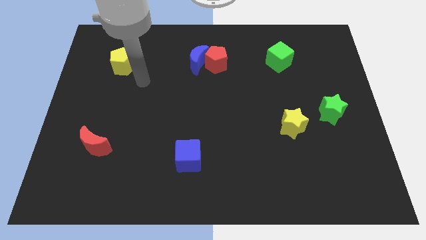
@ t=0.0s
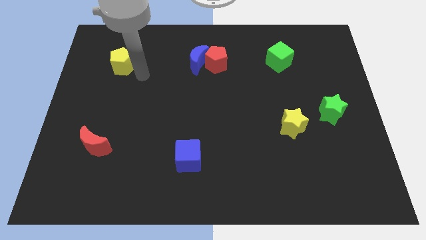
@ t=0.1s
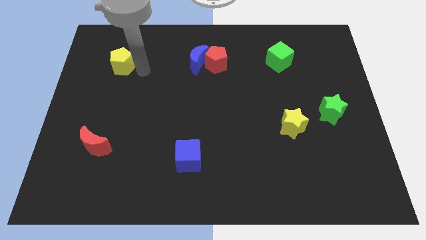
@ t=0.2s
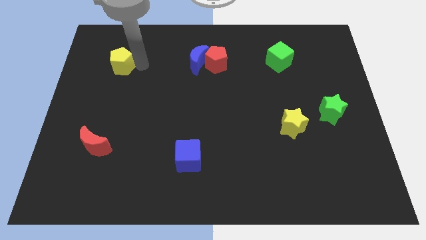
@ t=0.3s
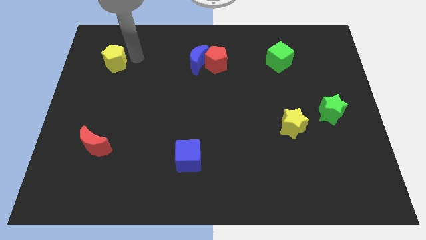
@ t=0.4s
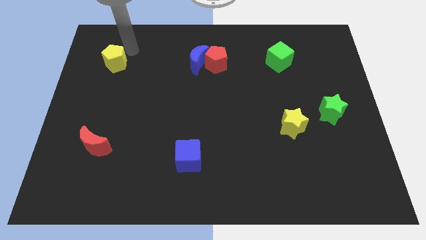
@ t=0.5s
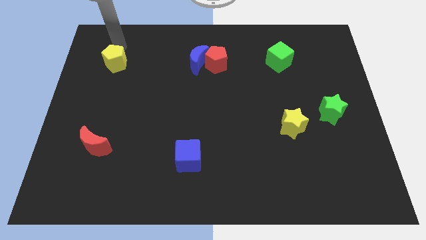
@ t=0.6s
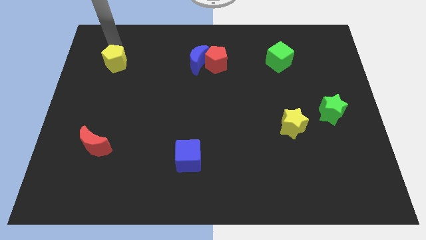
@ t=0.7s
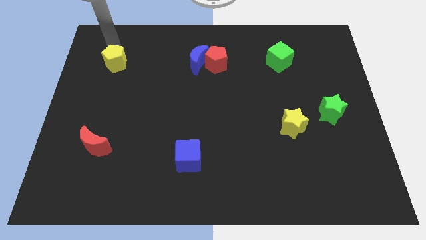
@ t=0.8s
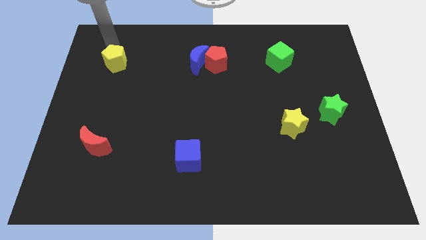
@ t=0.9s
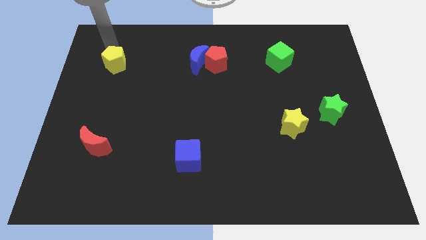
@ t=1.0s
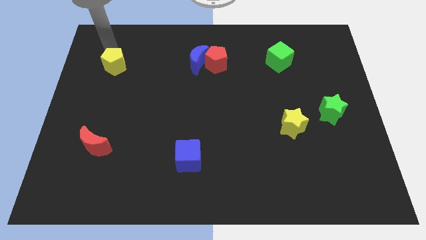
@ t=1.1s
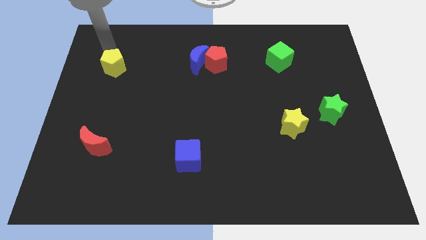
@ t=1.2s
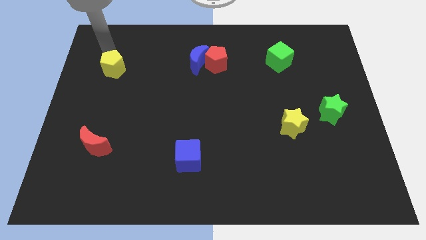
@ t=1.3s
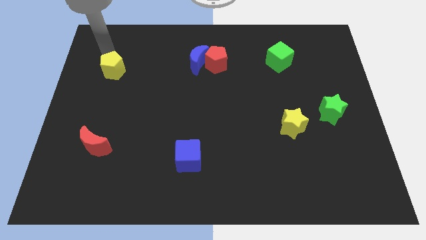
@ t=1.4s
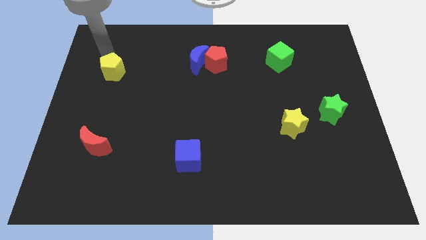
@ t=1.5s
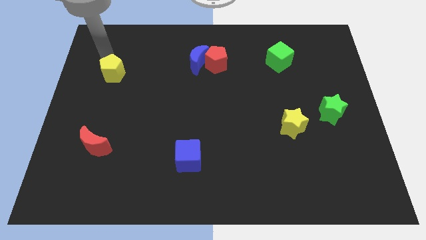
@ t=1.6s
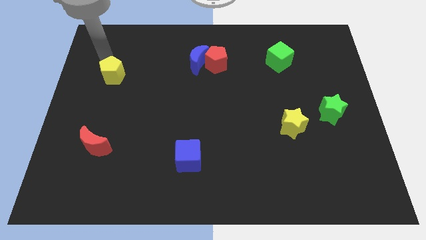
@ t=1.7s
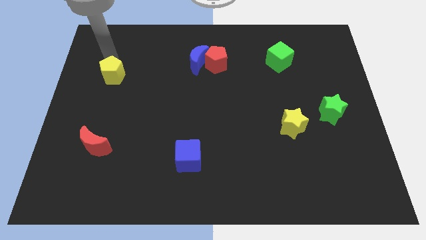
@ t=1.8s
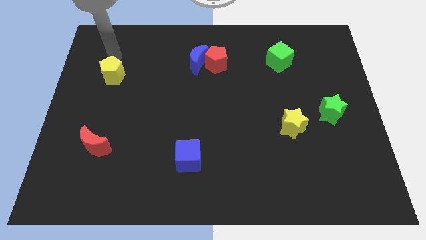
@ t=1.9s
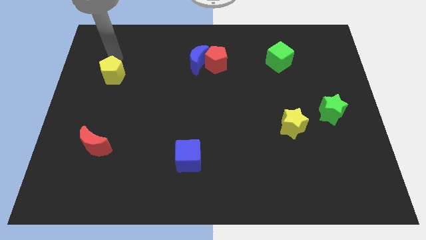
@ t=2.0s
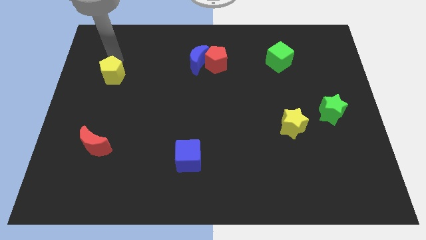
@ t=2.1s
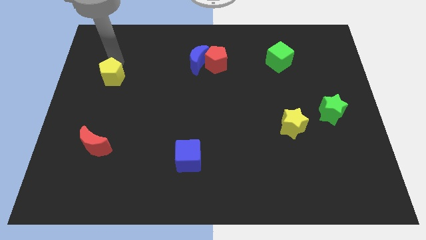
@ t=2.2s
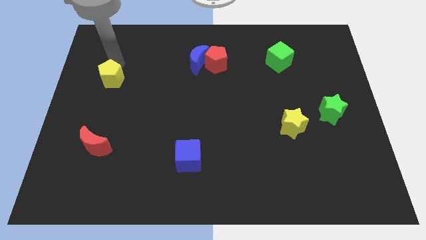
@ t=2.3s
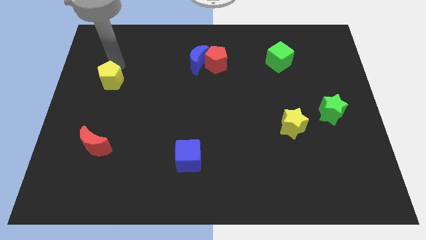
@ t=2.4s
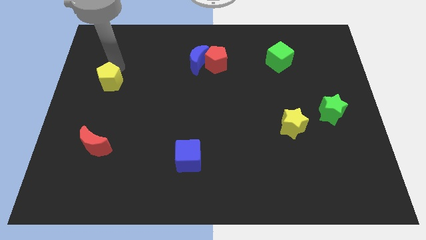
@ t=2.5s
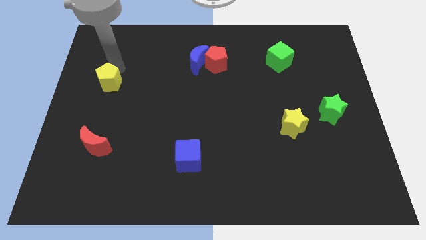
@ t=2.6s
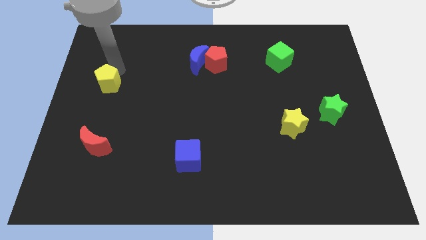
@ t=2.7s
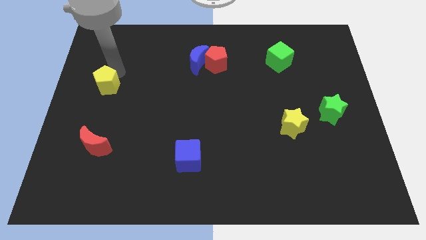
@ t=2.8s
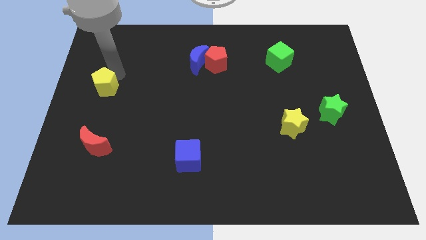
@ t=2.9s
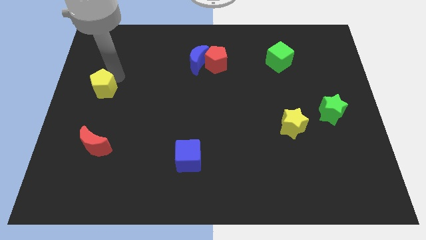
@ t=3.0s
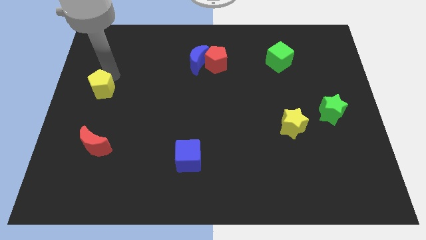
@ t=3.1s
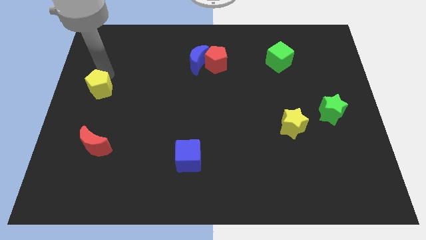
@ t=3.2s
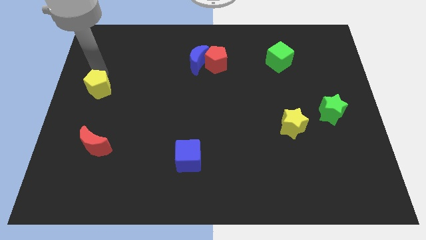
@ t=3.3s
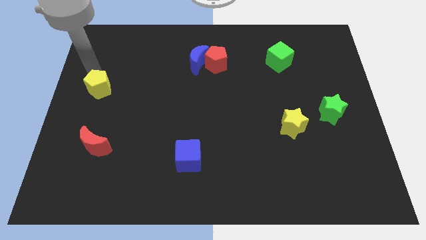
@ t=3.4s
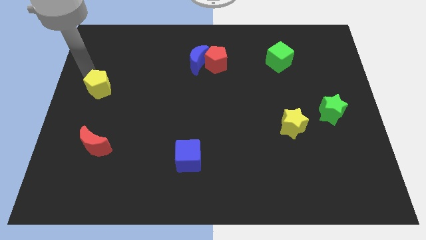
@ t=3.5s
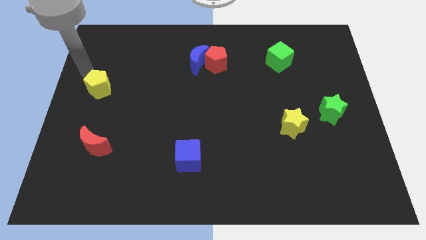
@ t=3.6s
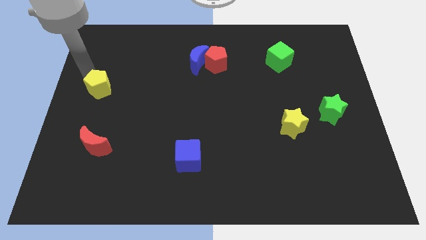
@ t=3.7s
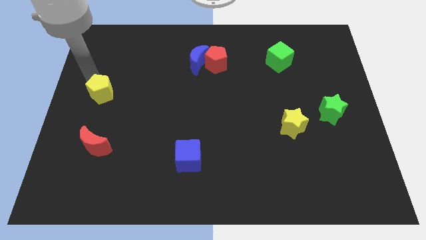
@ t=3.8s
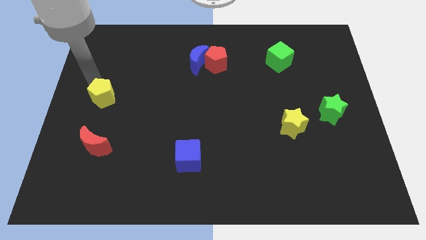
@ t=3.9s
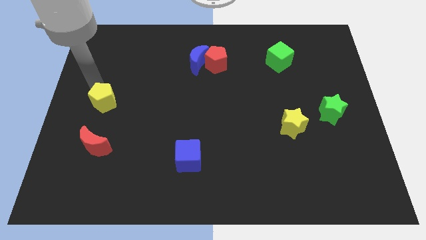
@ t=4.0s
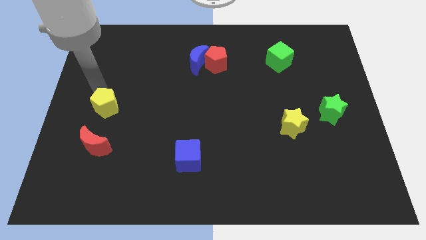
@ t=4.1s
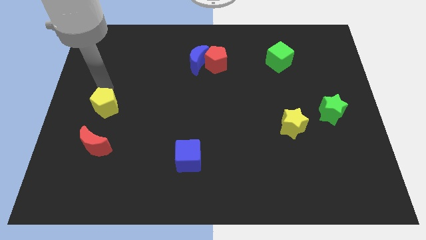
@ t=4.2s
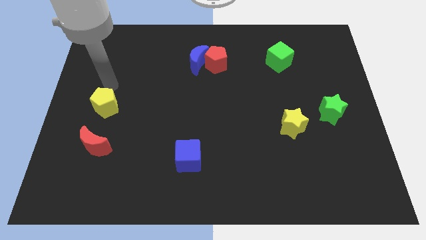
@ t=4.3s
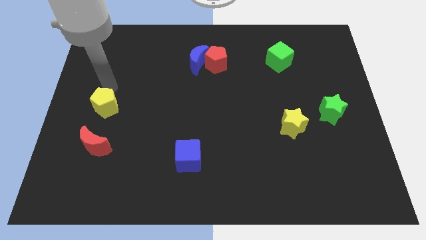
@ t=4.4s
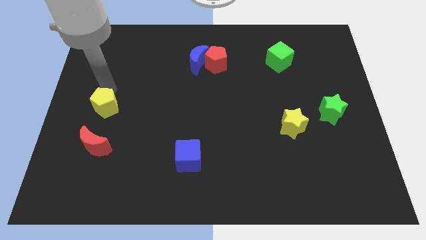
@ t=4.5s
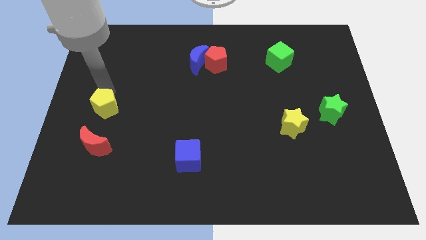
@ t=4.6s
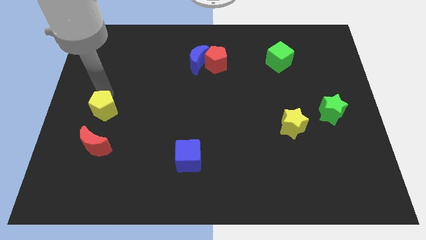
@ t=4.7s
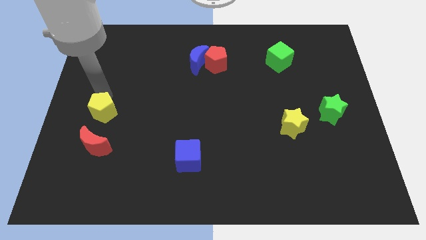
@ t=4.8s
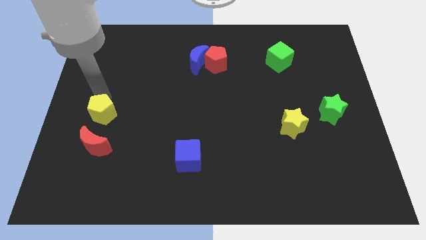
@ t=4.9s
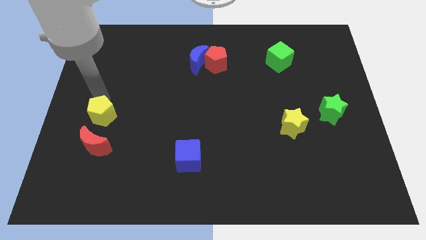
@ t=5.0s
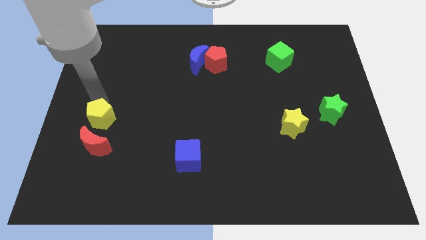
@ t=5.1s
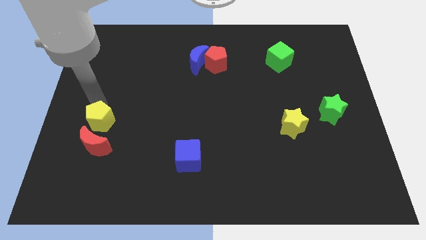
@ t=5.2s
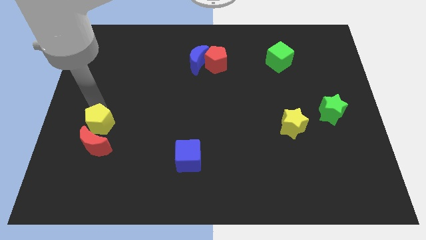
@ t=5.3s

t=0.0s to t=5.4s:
slide the yellow pentagon next to the red moon
